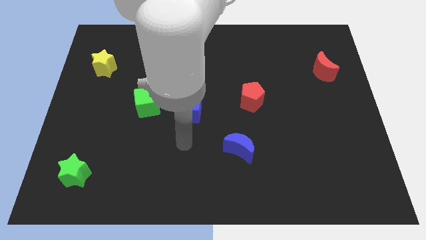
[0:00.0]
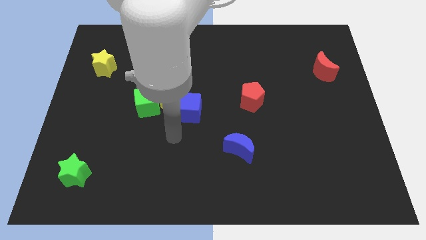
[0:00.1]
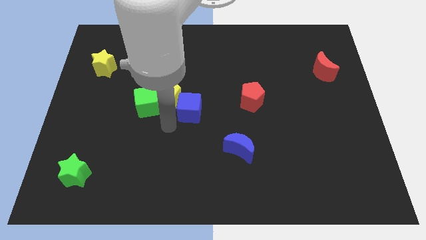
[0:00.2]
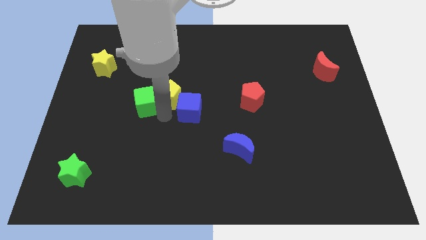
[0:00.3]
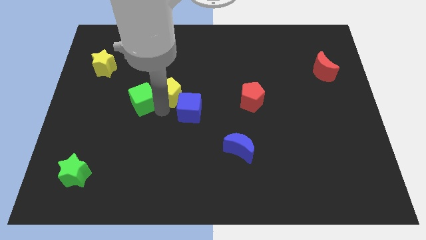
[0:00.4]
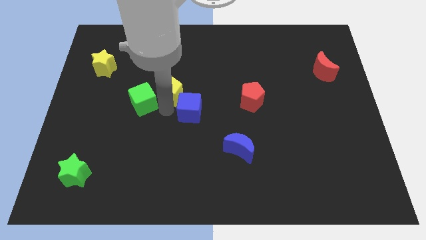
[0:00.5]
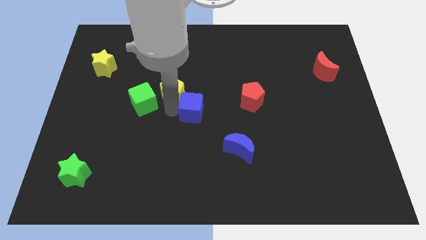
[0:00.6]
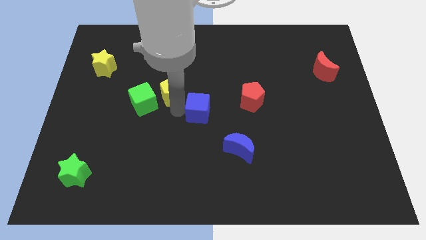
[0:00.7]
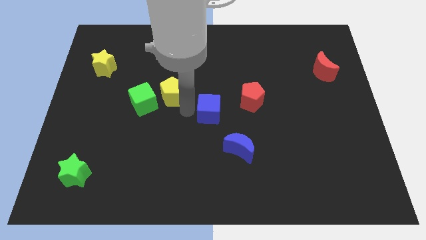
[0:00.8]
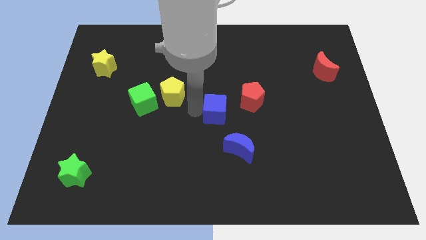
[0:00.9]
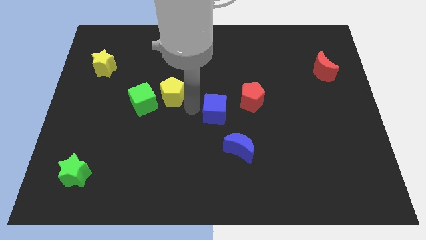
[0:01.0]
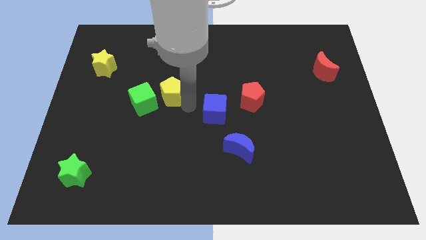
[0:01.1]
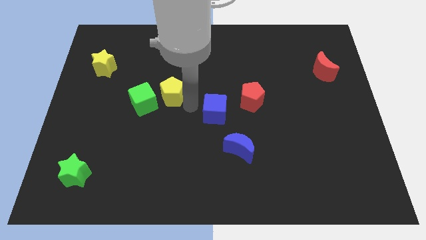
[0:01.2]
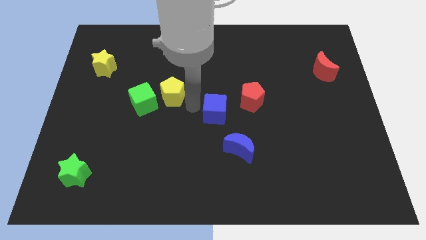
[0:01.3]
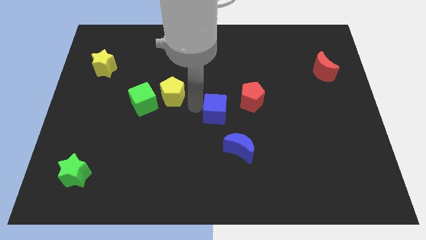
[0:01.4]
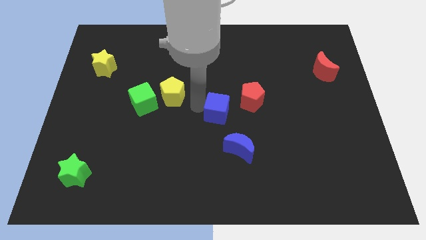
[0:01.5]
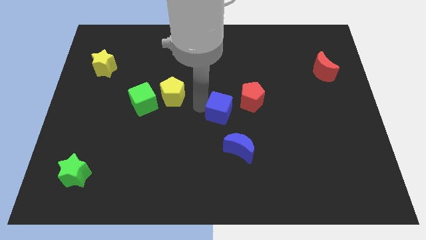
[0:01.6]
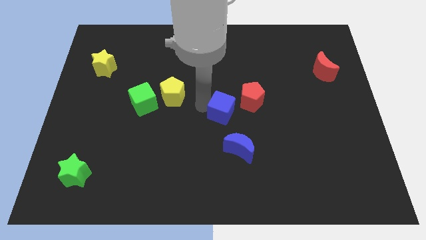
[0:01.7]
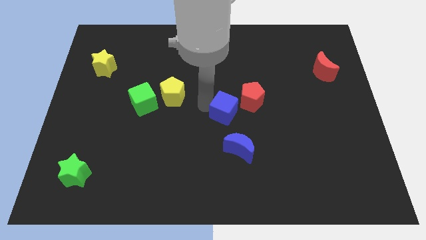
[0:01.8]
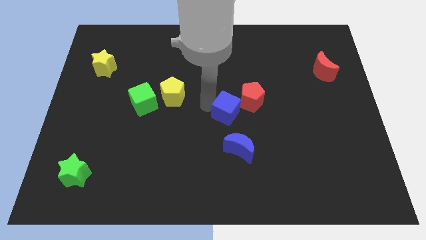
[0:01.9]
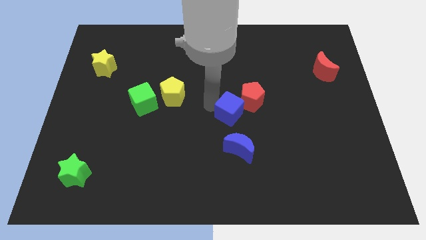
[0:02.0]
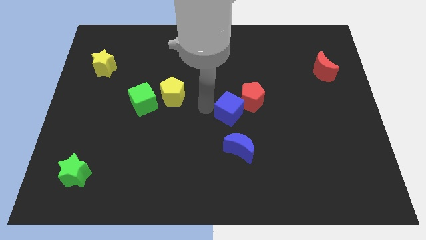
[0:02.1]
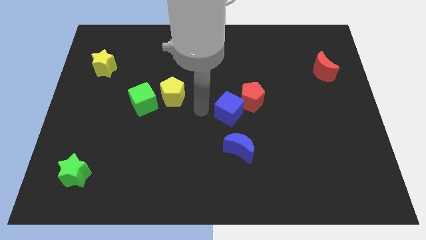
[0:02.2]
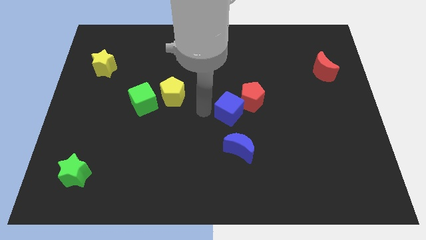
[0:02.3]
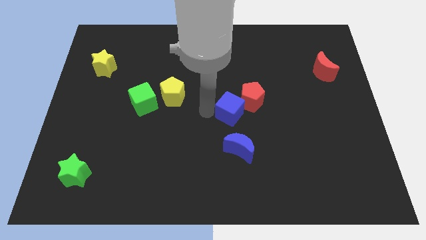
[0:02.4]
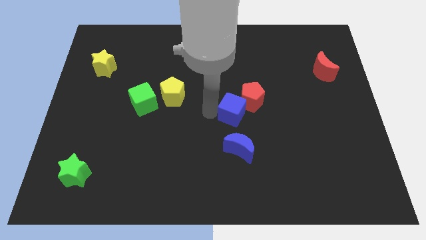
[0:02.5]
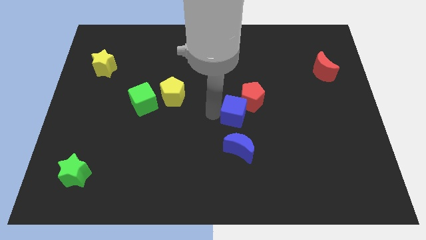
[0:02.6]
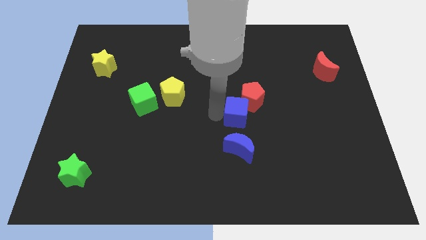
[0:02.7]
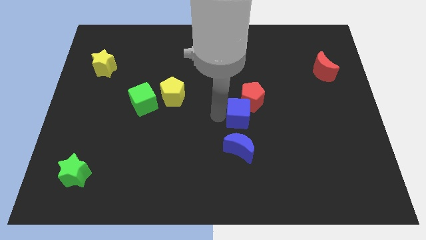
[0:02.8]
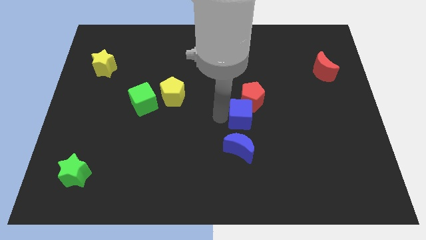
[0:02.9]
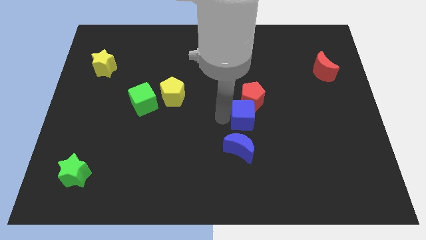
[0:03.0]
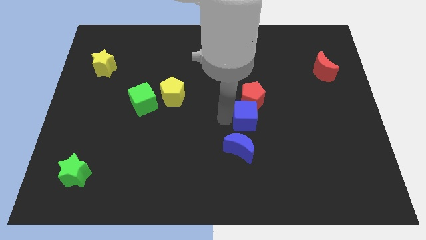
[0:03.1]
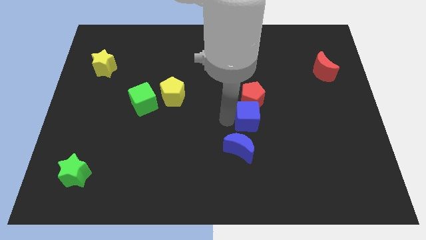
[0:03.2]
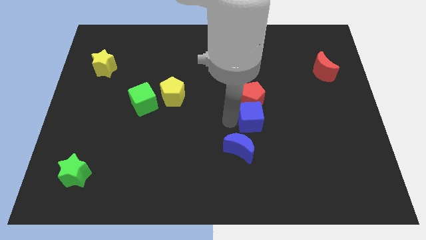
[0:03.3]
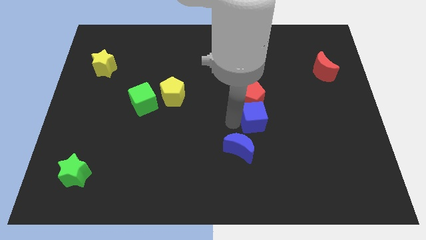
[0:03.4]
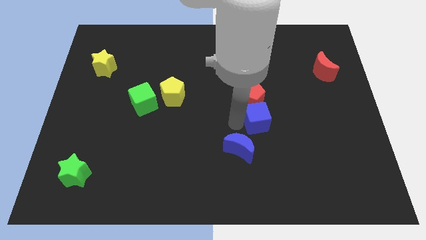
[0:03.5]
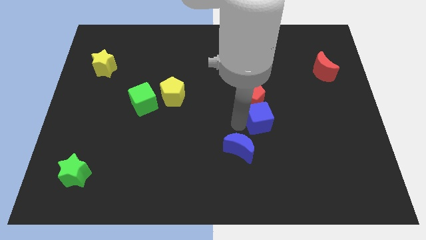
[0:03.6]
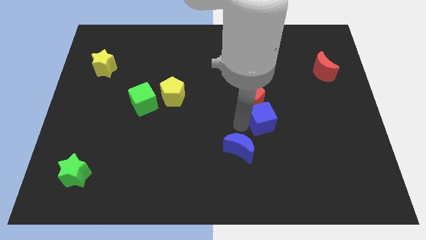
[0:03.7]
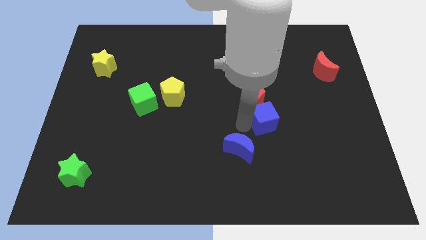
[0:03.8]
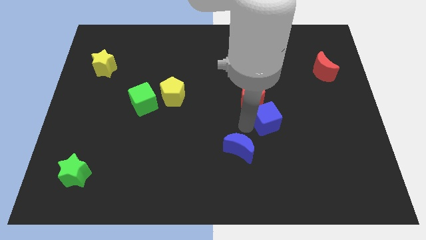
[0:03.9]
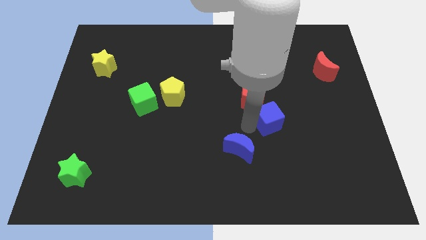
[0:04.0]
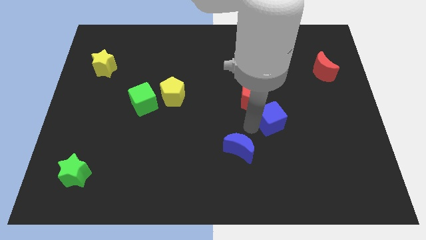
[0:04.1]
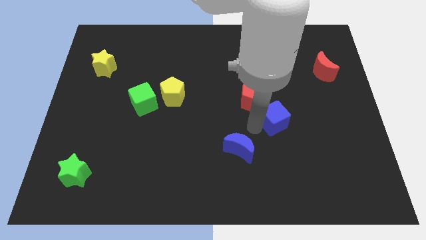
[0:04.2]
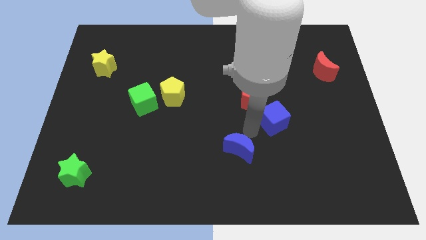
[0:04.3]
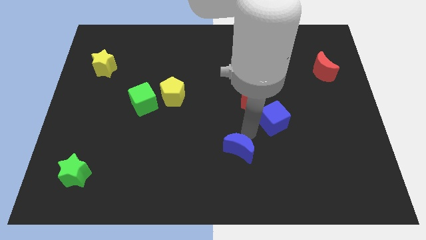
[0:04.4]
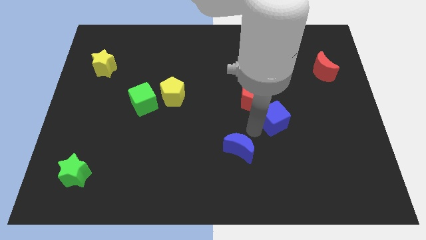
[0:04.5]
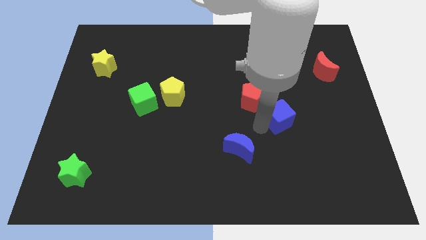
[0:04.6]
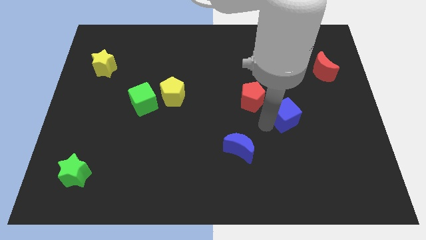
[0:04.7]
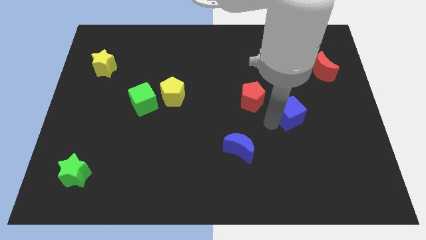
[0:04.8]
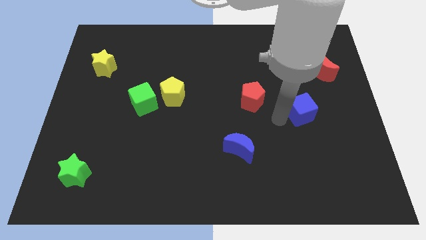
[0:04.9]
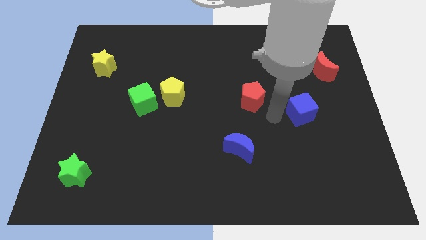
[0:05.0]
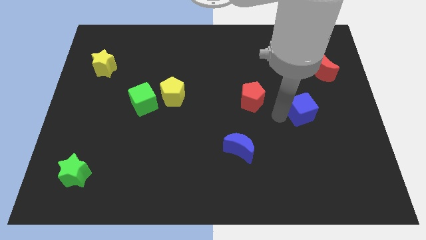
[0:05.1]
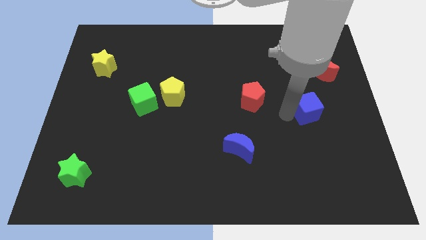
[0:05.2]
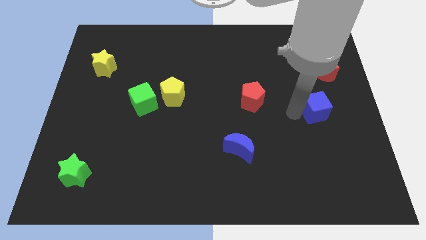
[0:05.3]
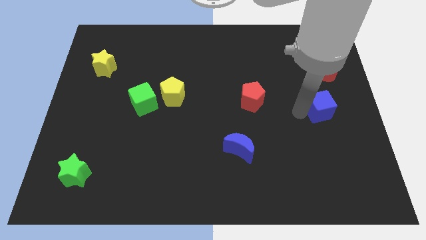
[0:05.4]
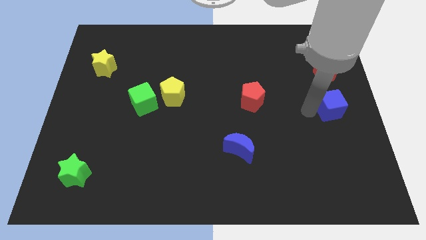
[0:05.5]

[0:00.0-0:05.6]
slide the blue cube to the right side

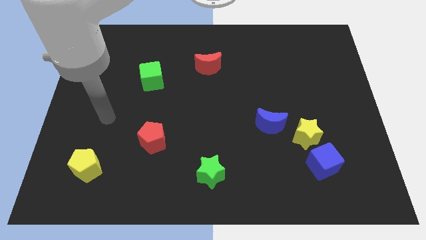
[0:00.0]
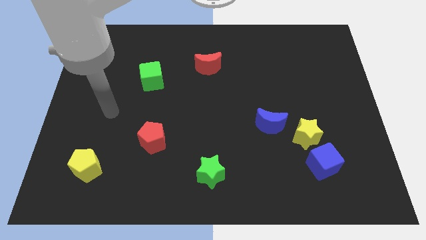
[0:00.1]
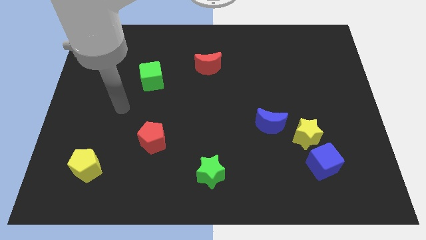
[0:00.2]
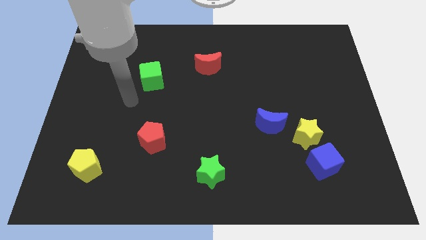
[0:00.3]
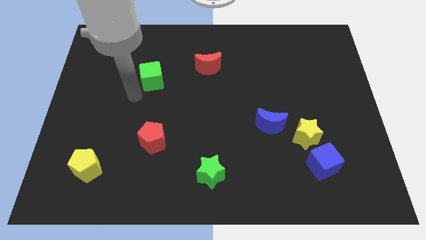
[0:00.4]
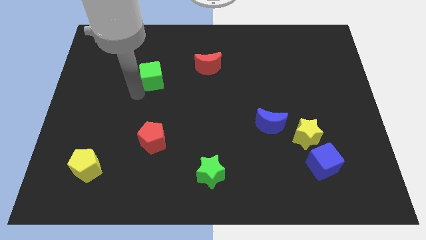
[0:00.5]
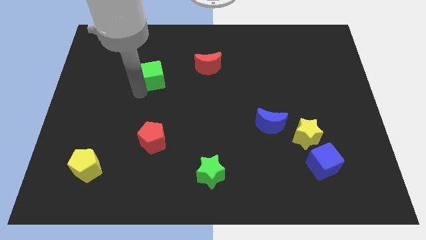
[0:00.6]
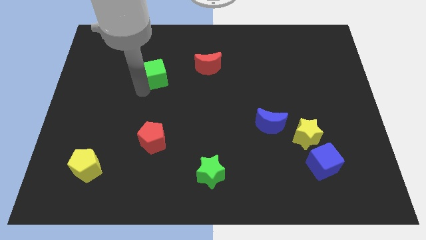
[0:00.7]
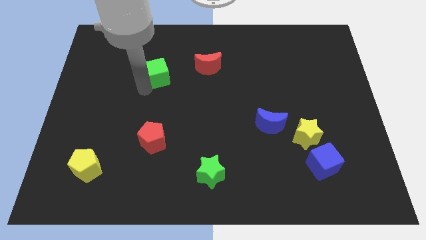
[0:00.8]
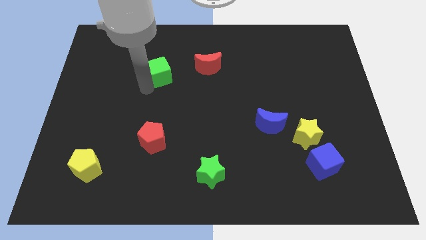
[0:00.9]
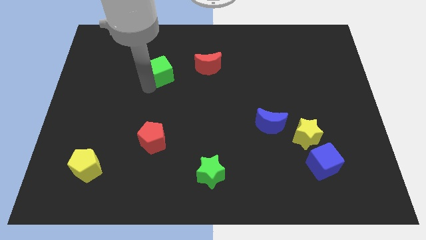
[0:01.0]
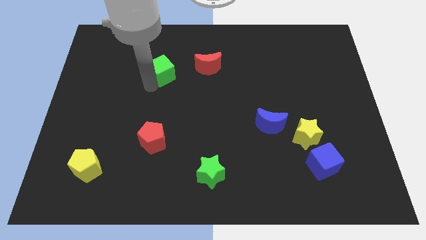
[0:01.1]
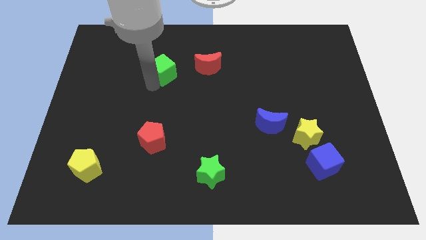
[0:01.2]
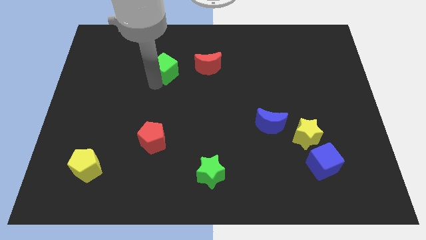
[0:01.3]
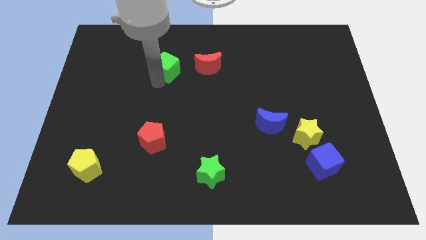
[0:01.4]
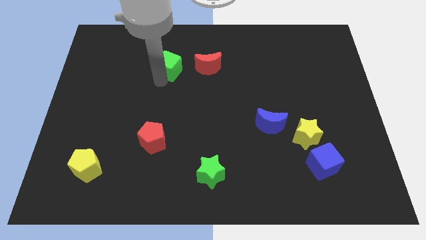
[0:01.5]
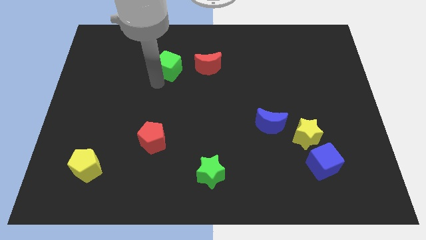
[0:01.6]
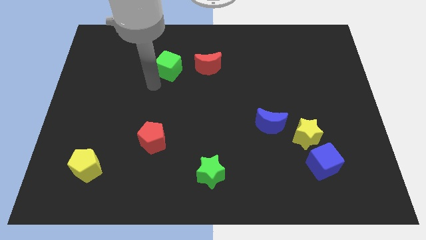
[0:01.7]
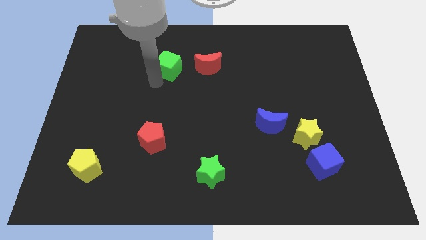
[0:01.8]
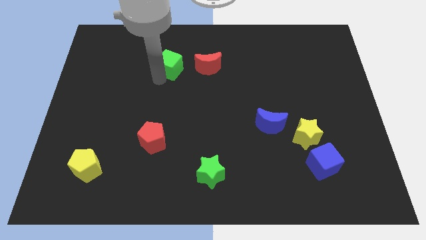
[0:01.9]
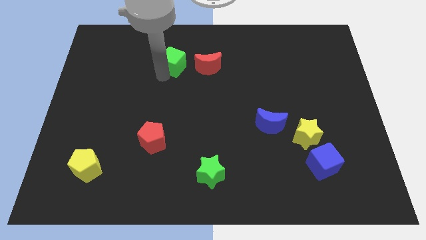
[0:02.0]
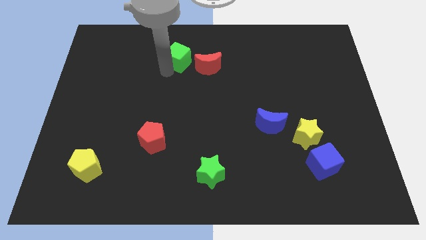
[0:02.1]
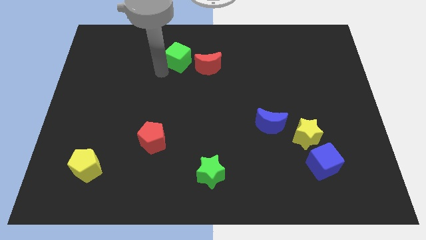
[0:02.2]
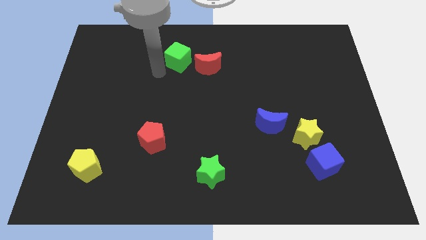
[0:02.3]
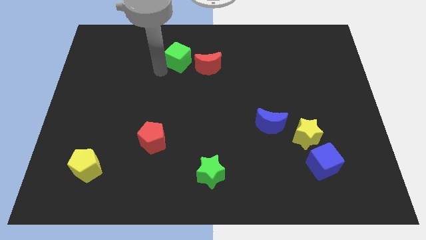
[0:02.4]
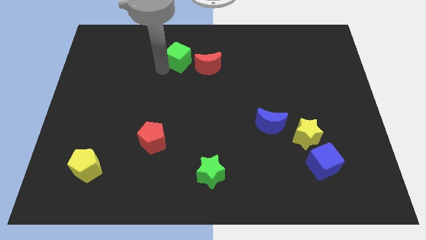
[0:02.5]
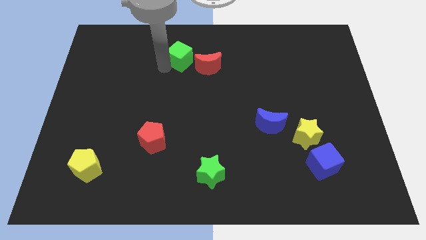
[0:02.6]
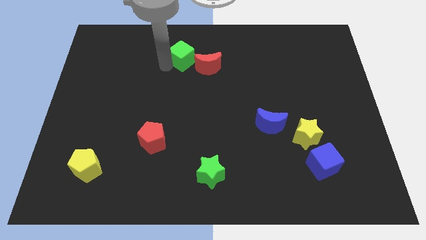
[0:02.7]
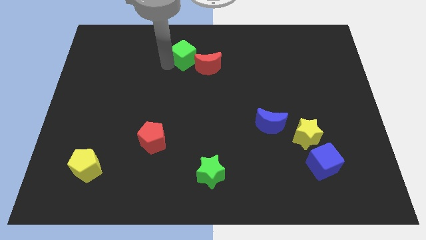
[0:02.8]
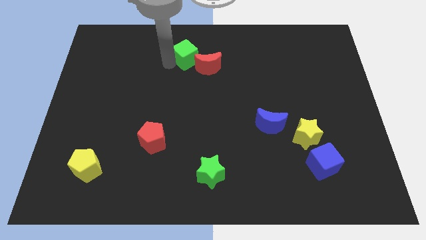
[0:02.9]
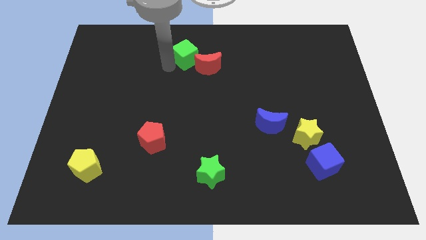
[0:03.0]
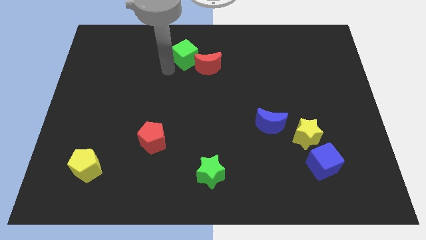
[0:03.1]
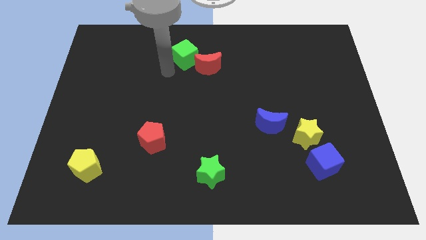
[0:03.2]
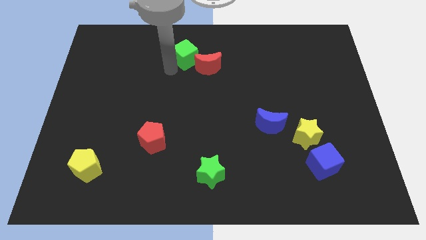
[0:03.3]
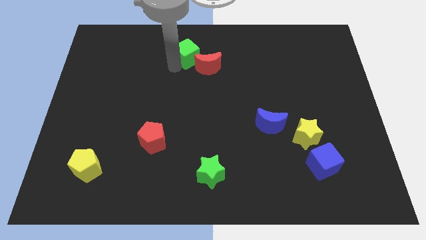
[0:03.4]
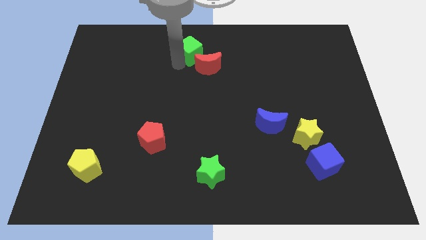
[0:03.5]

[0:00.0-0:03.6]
put the green cube to the towards your base
